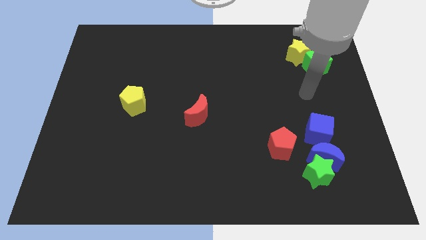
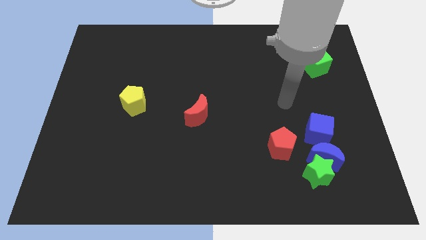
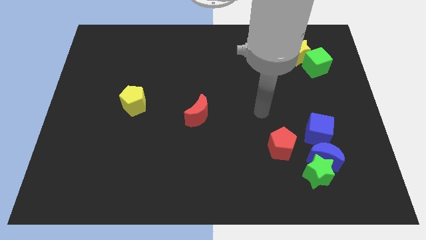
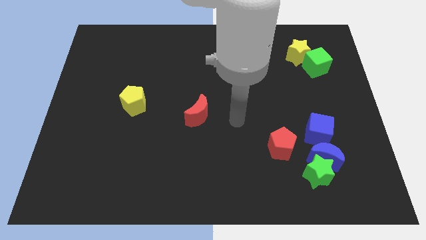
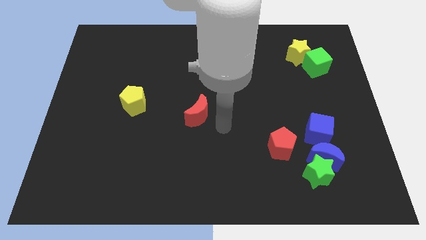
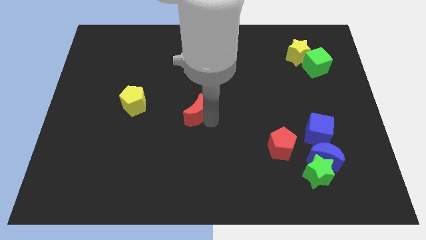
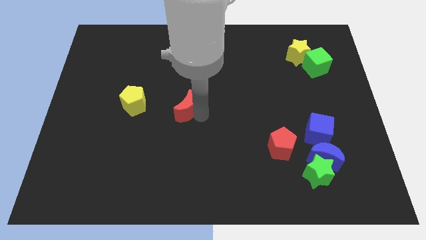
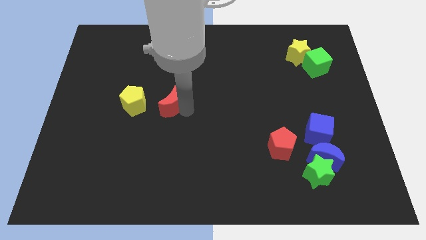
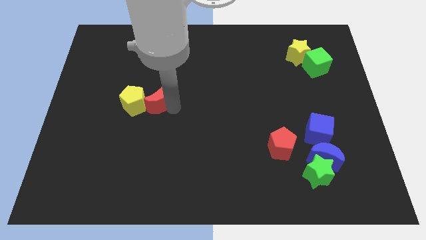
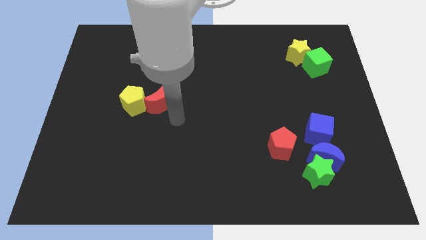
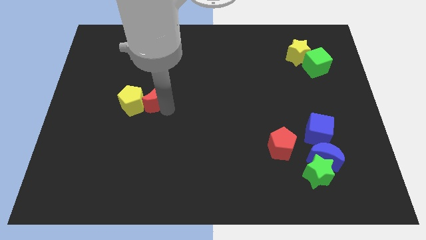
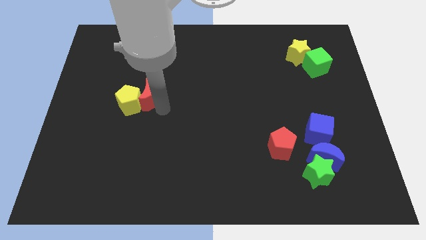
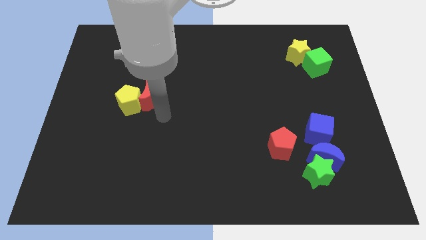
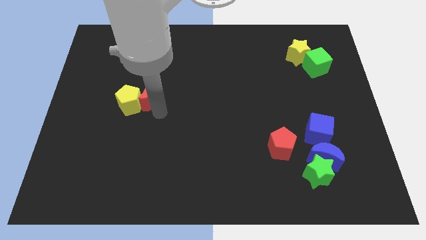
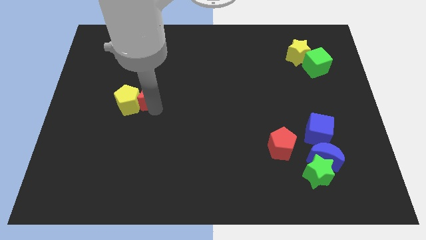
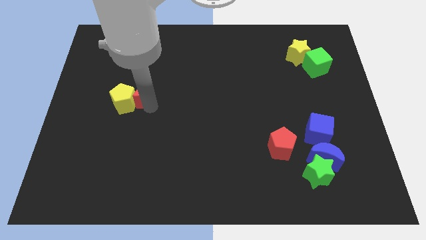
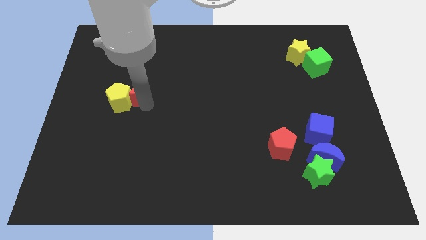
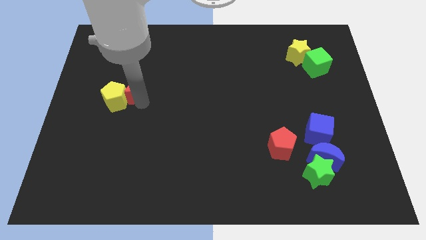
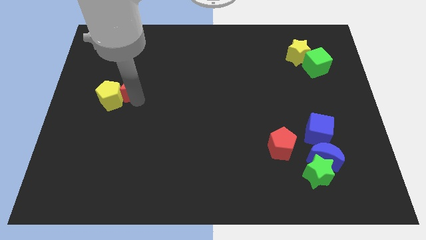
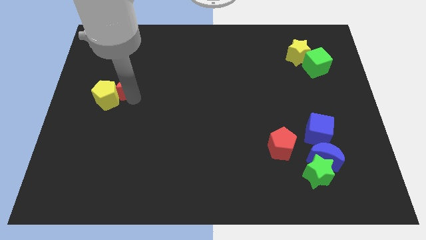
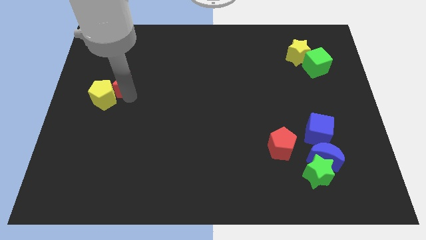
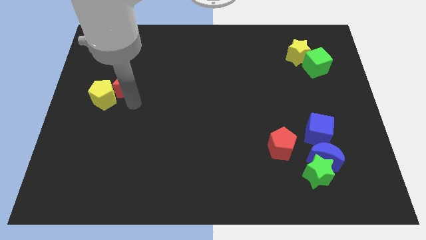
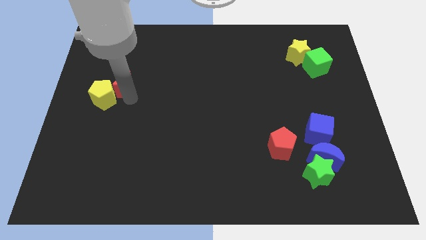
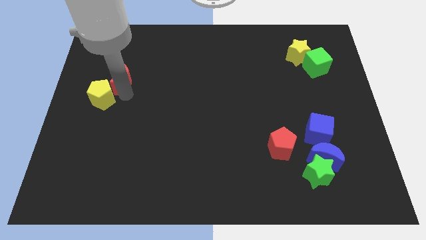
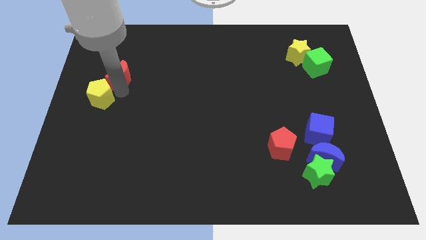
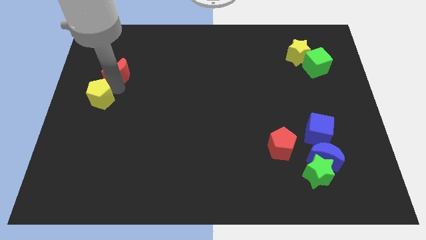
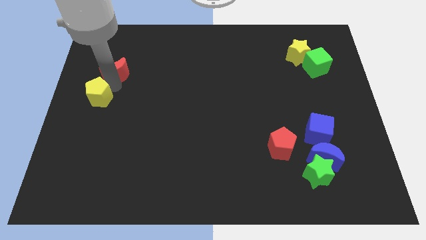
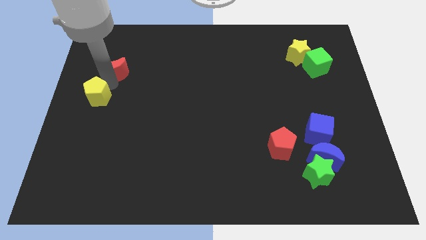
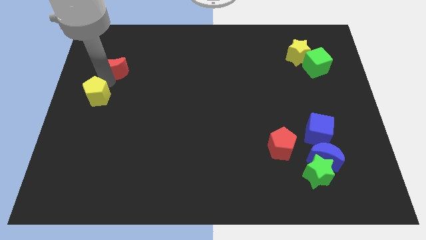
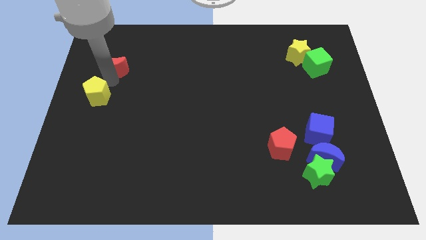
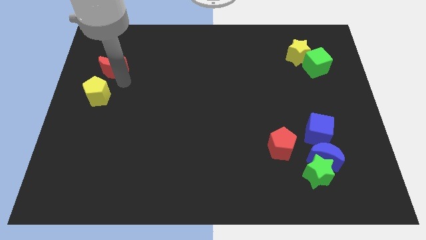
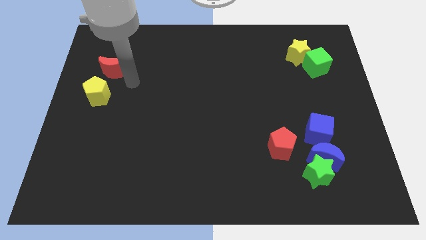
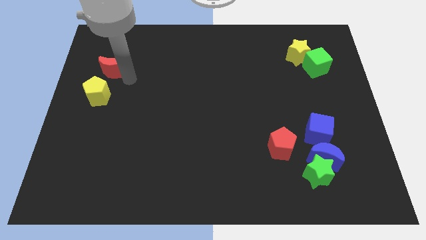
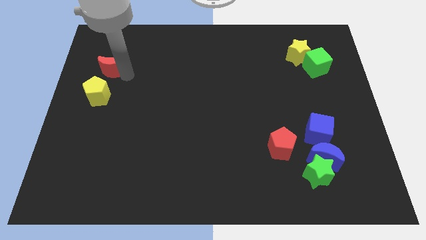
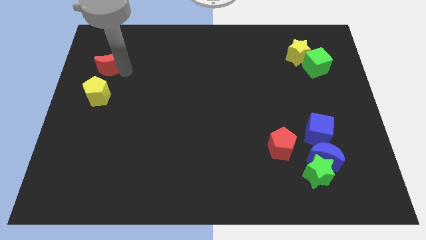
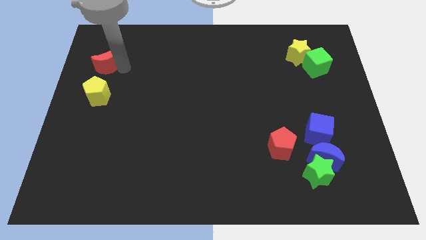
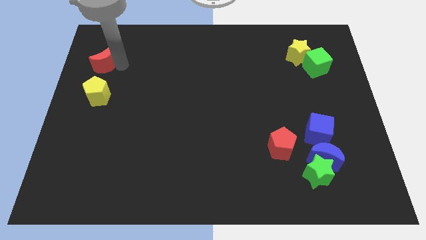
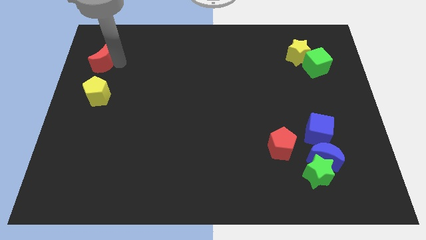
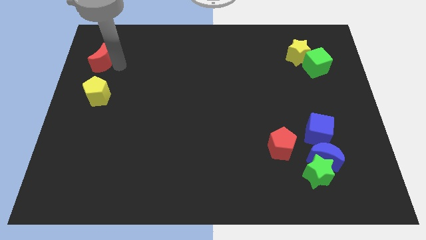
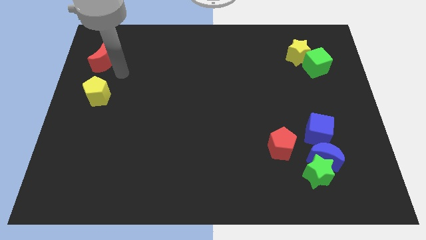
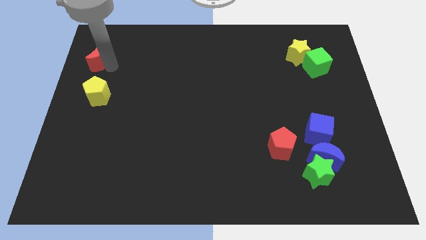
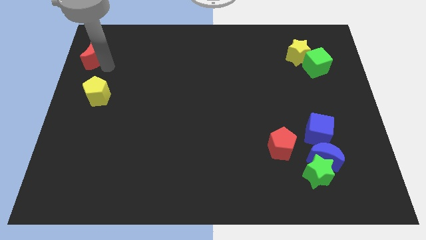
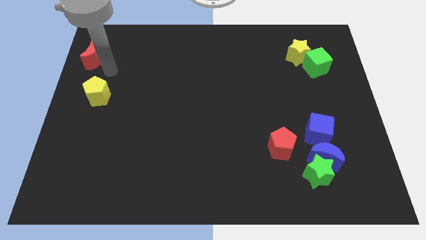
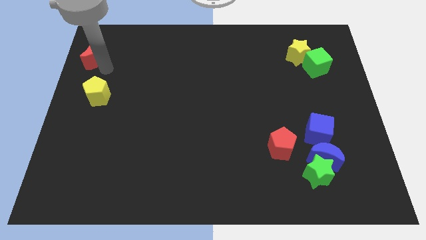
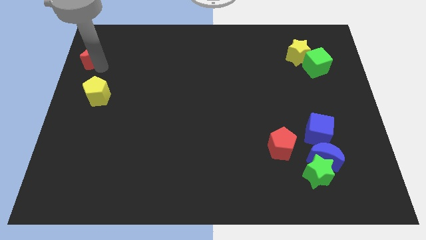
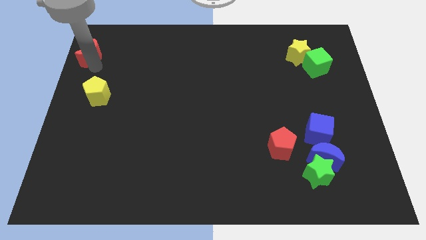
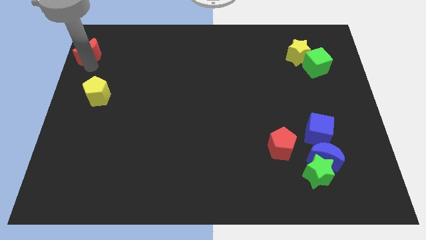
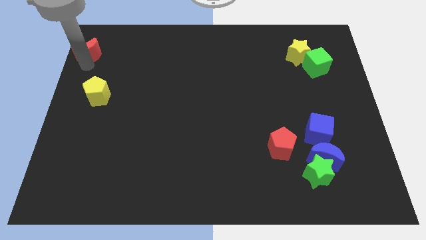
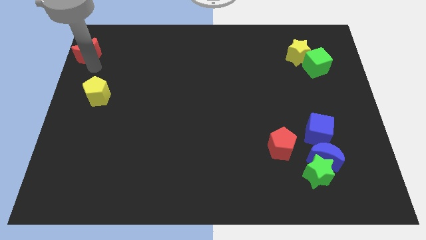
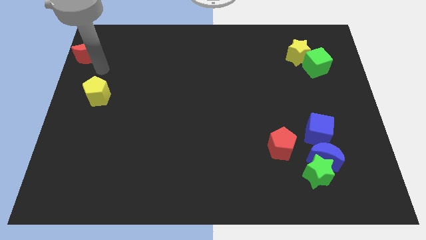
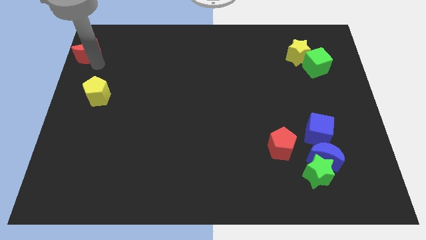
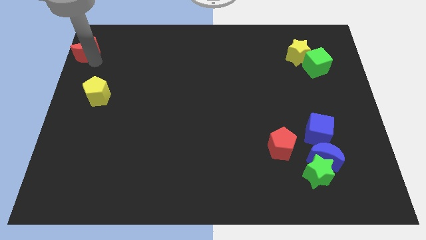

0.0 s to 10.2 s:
slide the red moon to the upper left corner

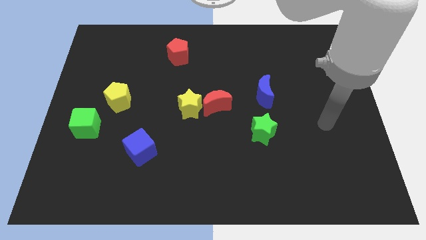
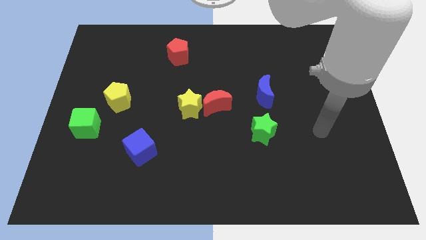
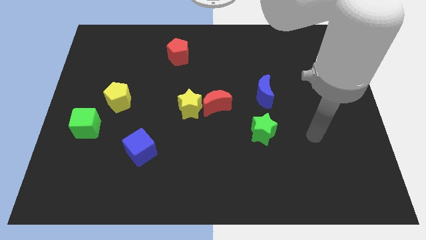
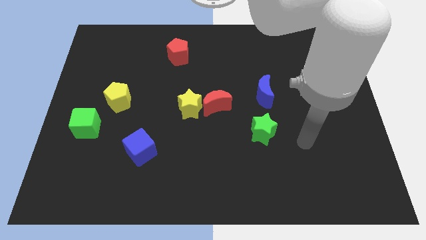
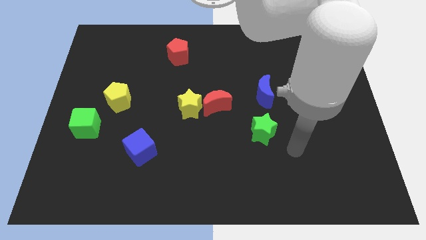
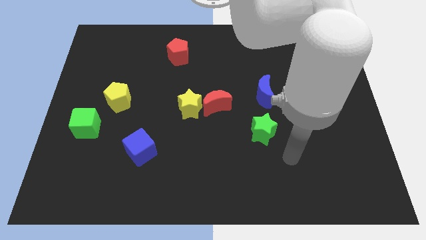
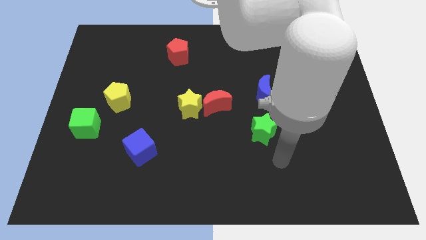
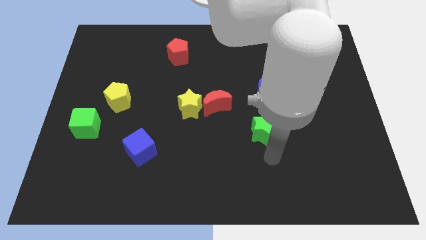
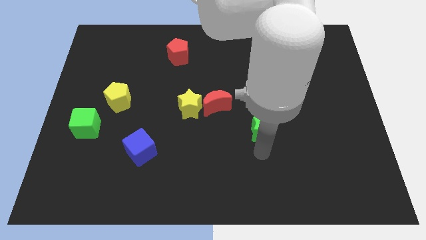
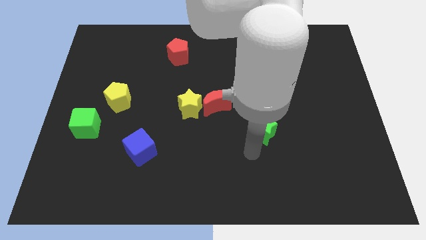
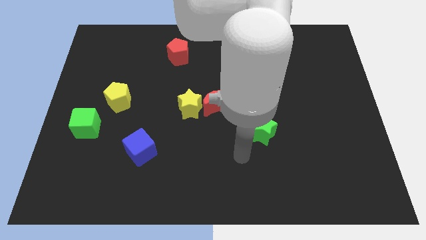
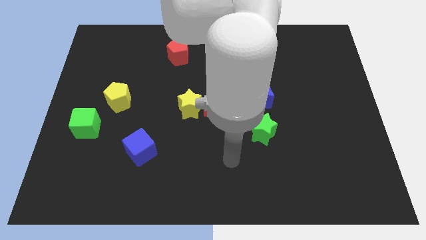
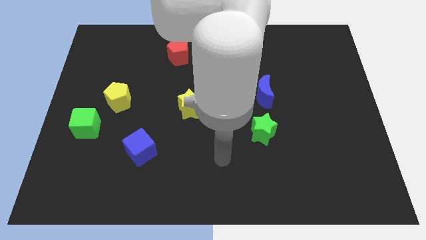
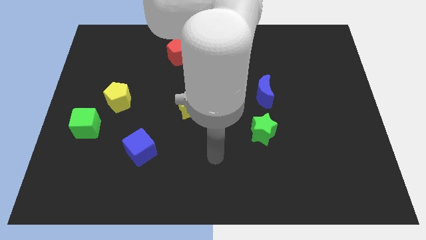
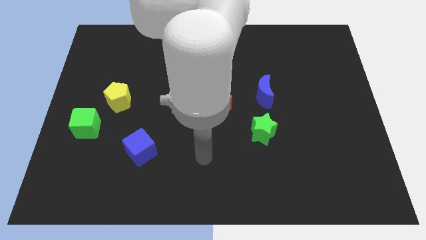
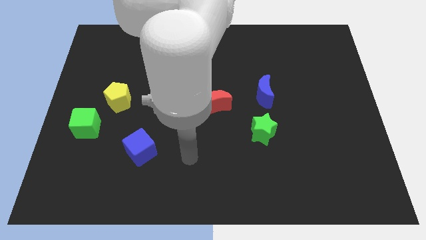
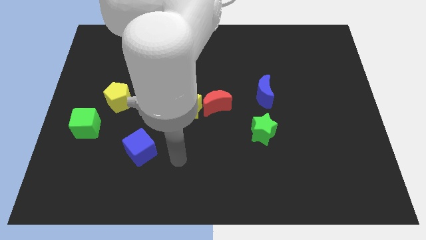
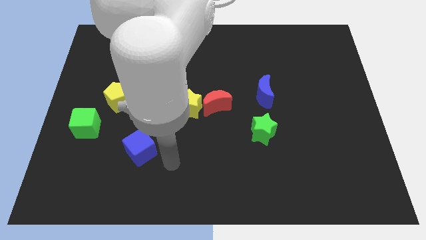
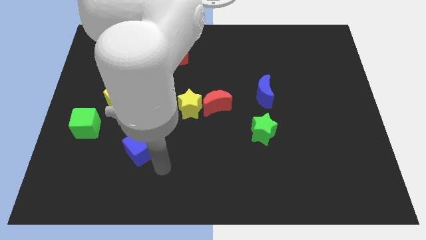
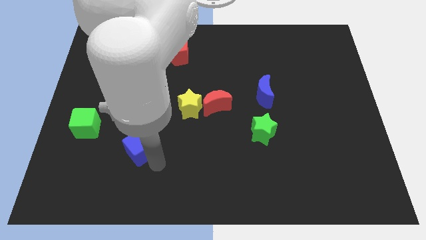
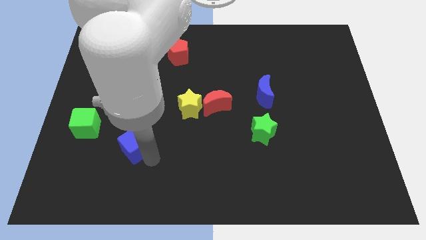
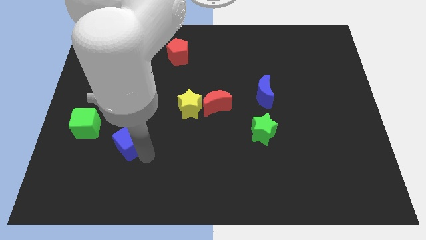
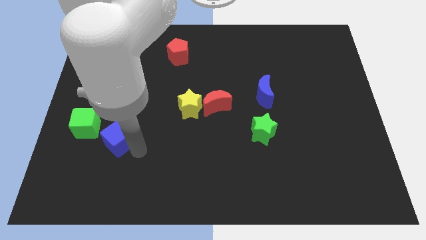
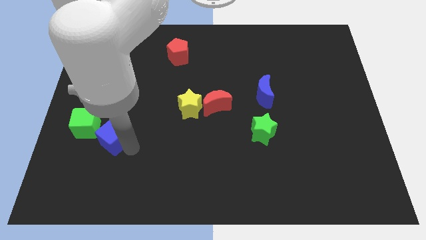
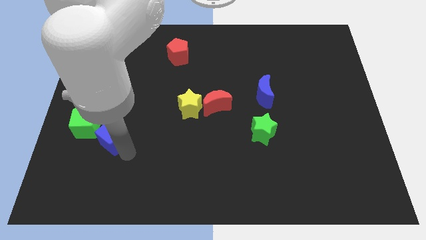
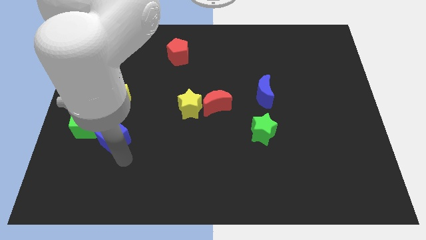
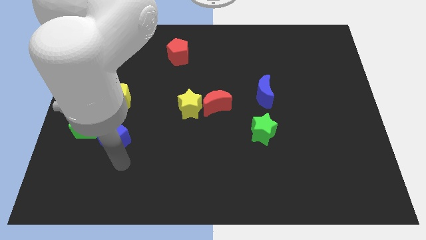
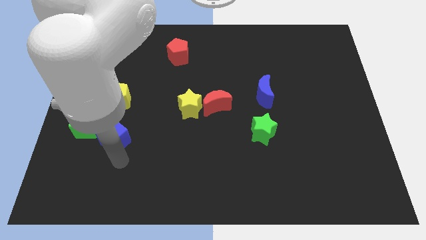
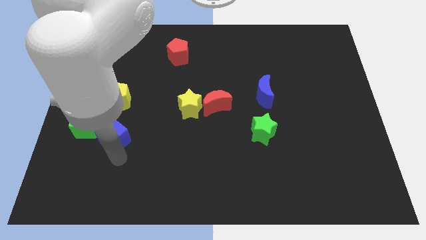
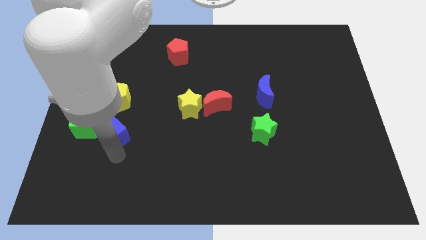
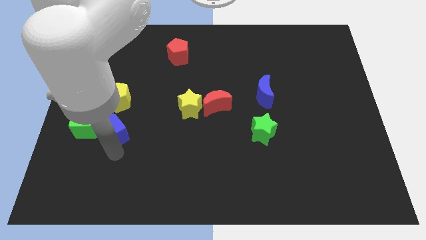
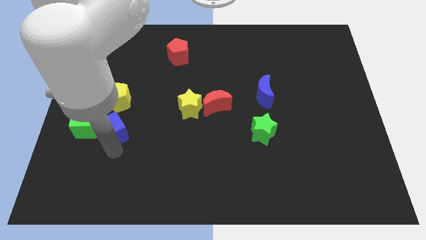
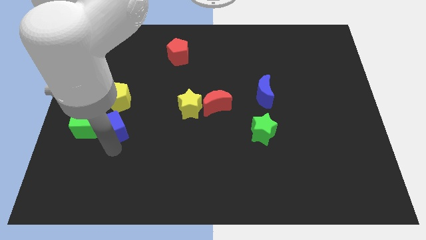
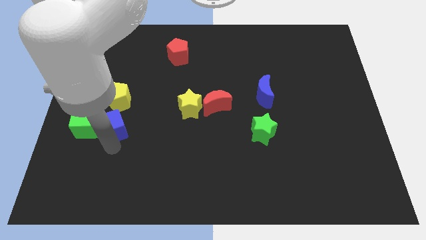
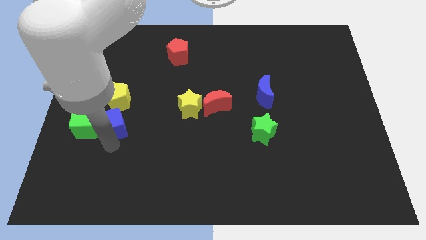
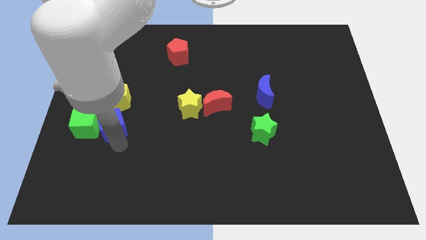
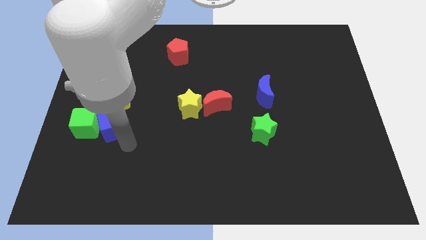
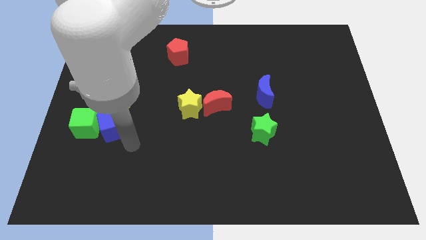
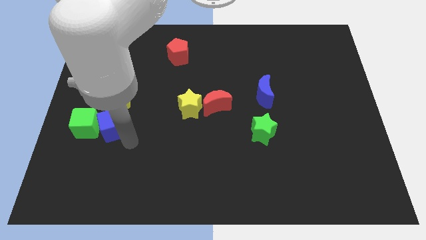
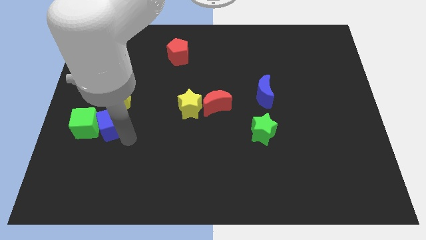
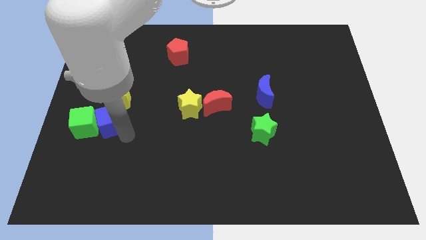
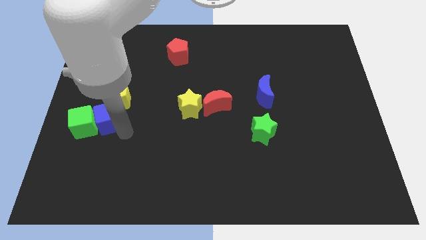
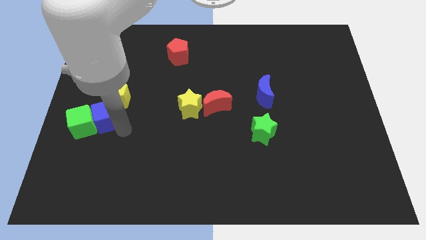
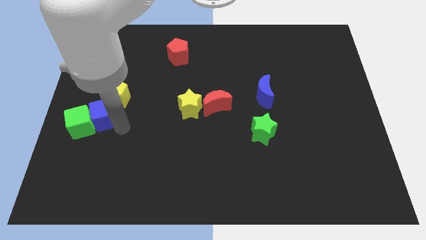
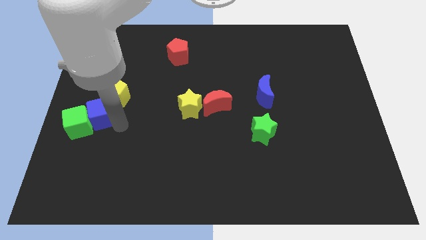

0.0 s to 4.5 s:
push the blue cube to the center left
